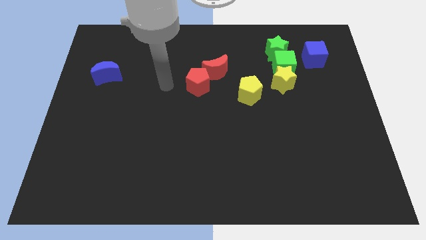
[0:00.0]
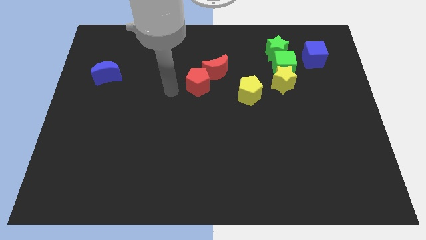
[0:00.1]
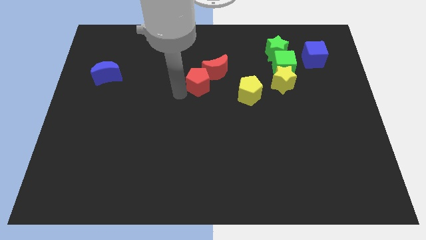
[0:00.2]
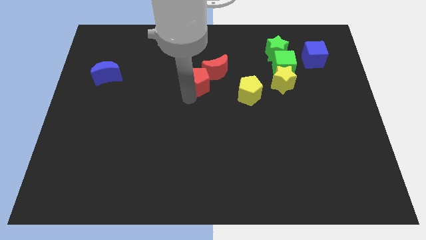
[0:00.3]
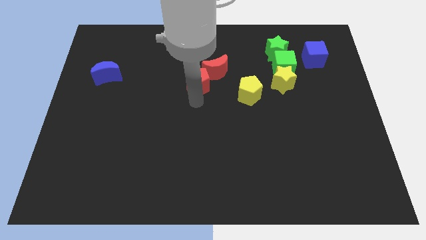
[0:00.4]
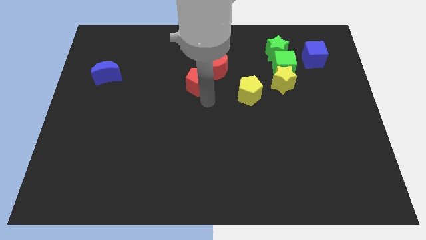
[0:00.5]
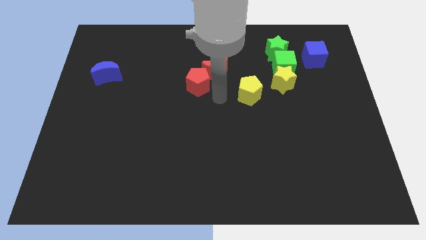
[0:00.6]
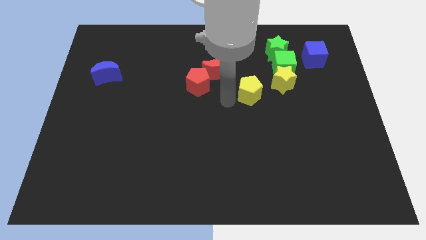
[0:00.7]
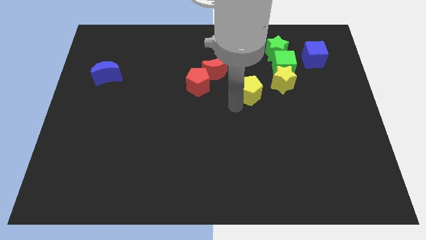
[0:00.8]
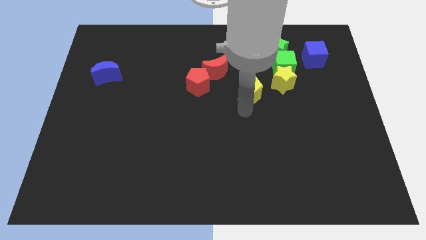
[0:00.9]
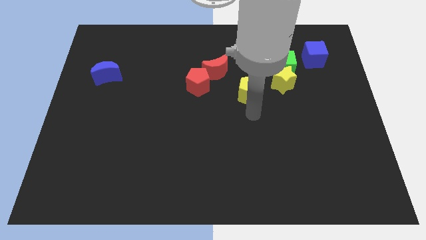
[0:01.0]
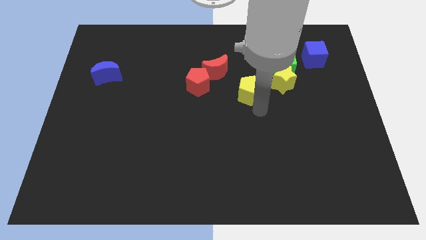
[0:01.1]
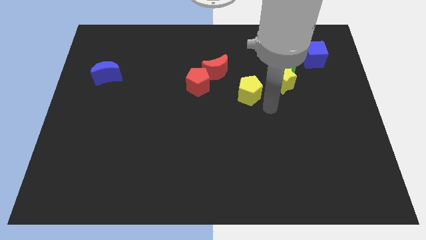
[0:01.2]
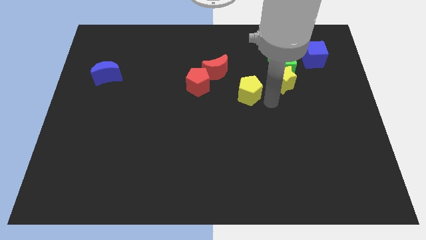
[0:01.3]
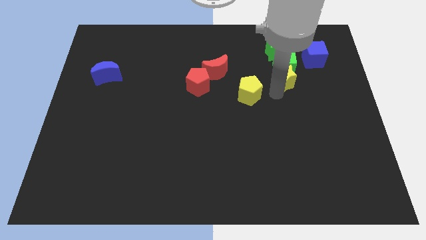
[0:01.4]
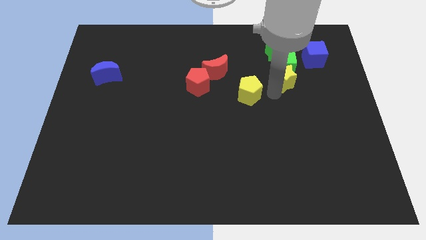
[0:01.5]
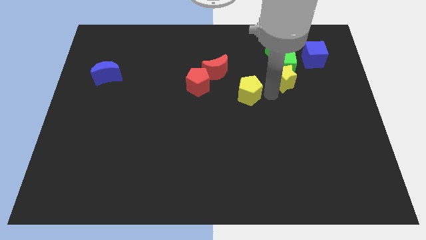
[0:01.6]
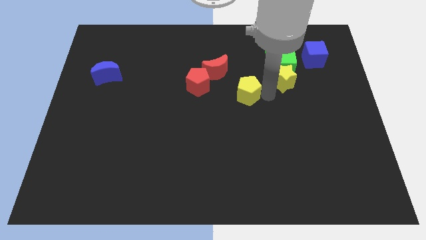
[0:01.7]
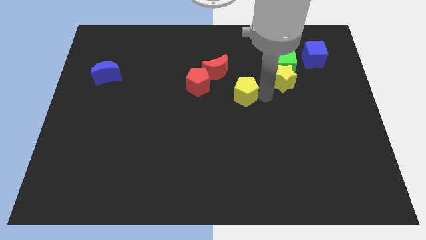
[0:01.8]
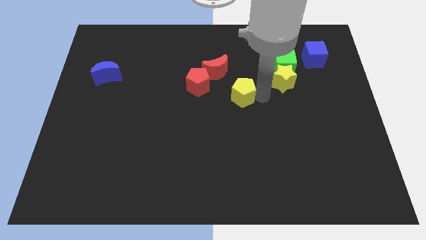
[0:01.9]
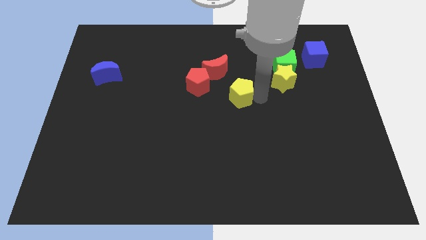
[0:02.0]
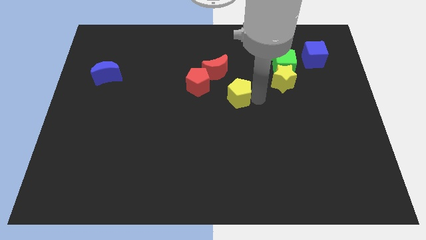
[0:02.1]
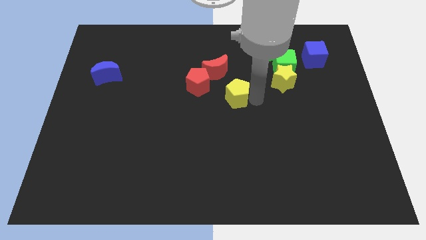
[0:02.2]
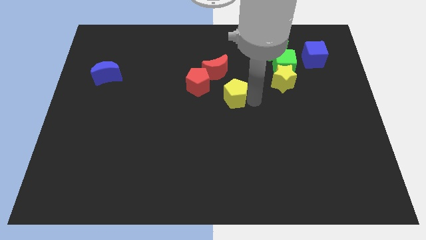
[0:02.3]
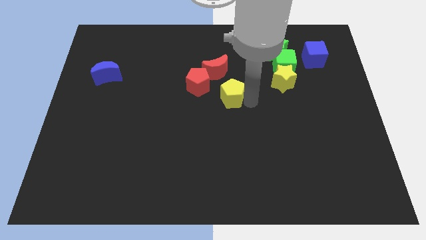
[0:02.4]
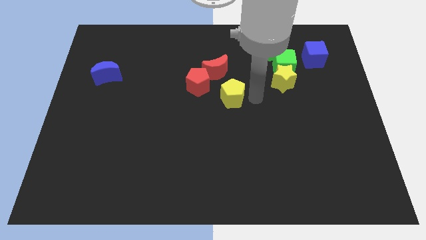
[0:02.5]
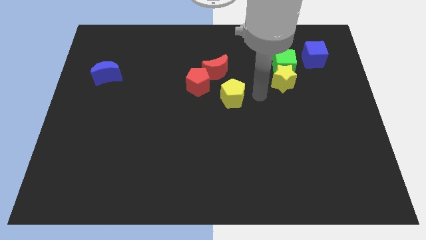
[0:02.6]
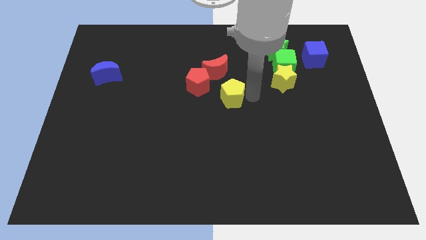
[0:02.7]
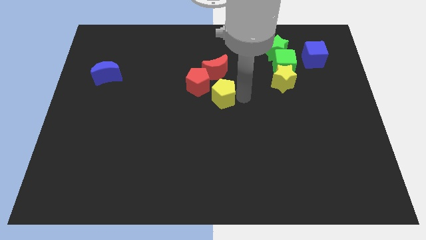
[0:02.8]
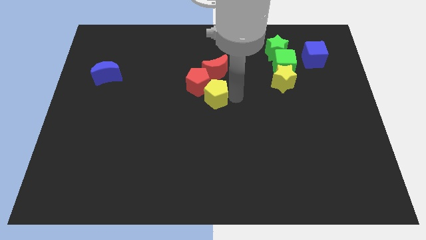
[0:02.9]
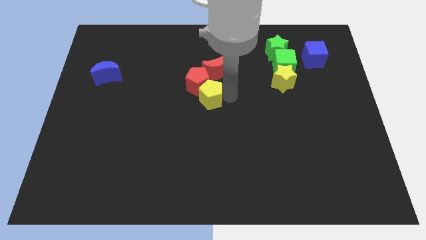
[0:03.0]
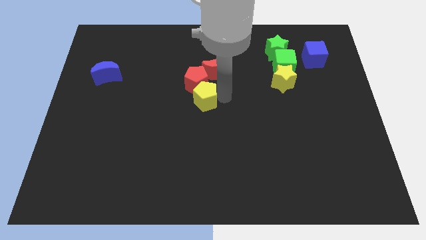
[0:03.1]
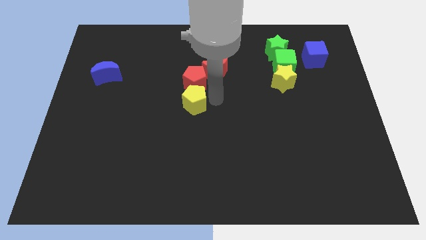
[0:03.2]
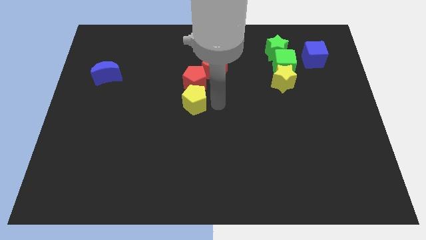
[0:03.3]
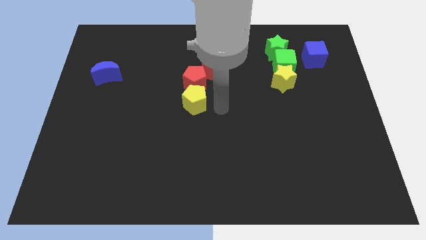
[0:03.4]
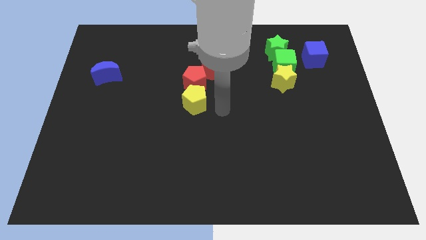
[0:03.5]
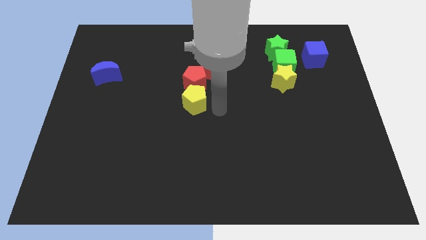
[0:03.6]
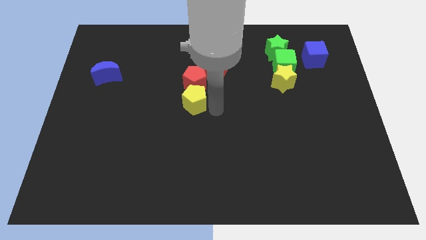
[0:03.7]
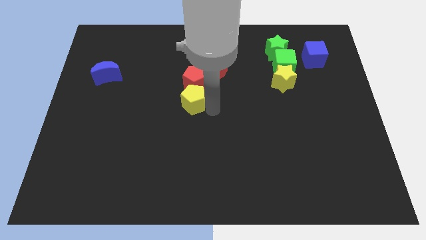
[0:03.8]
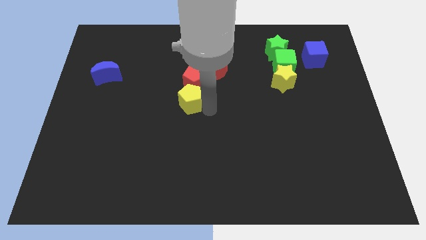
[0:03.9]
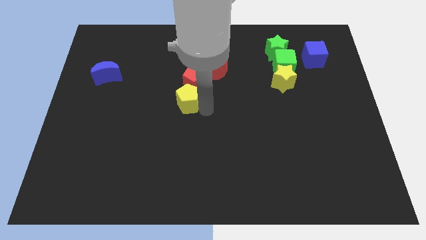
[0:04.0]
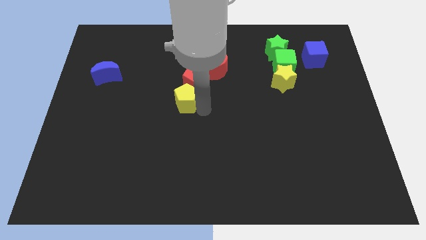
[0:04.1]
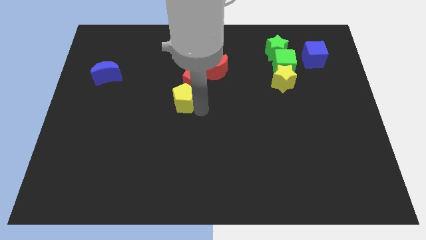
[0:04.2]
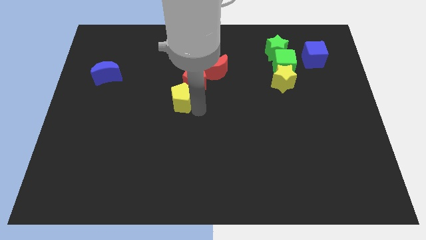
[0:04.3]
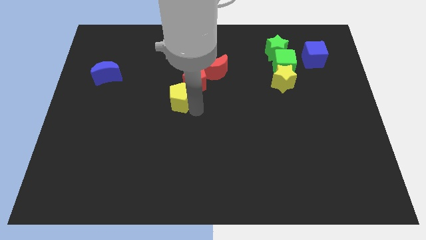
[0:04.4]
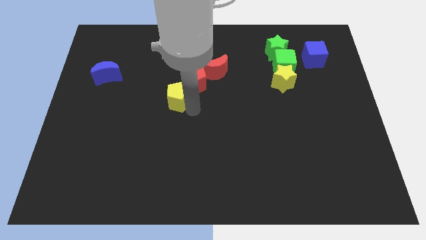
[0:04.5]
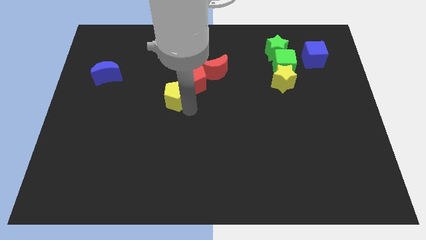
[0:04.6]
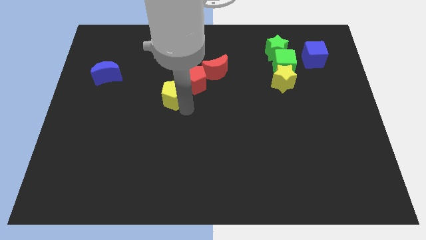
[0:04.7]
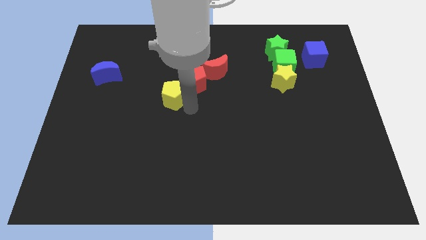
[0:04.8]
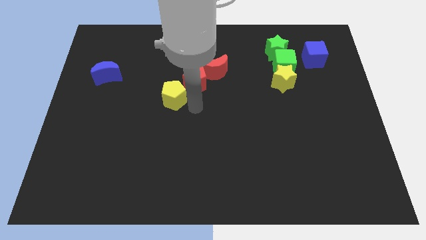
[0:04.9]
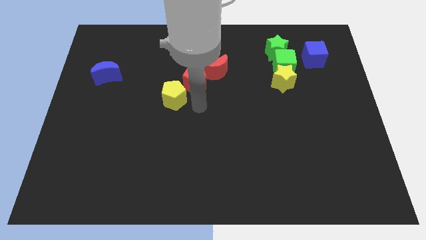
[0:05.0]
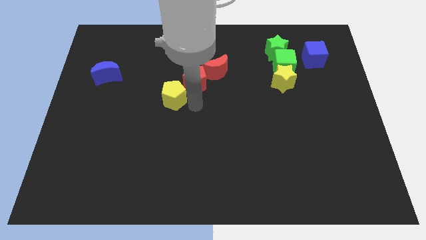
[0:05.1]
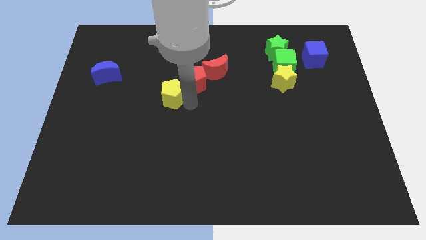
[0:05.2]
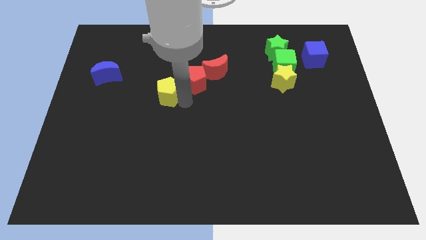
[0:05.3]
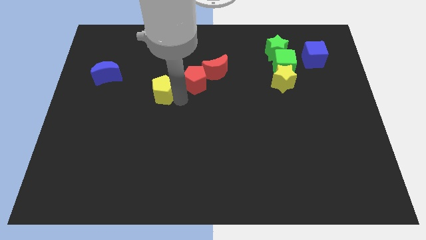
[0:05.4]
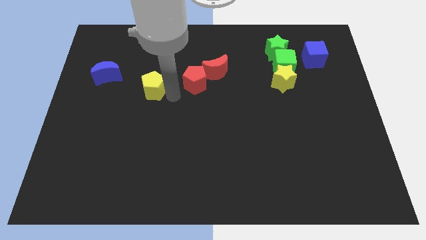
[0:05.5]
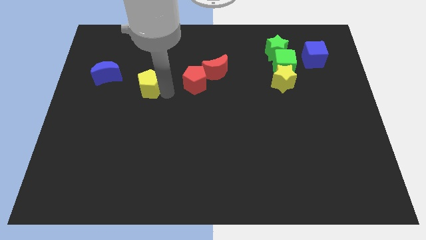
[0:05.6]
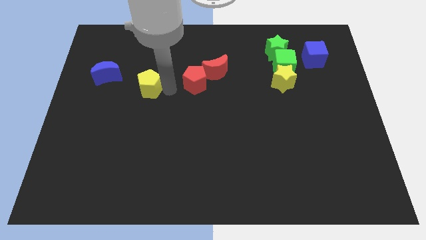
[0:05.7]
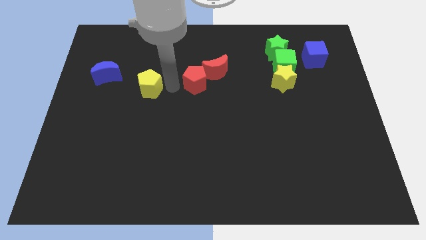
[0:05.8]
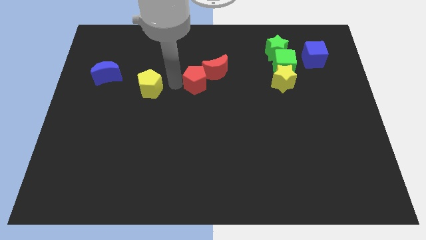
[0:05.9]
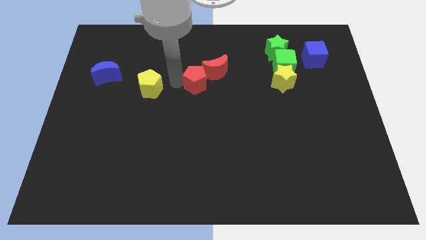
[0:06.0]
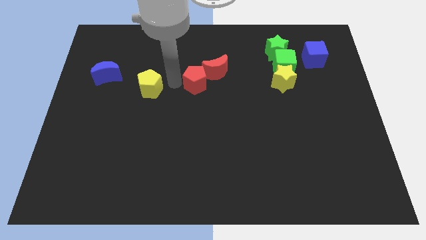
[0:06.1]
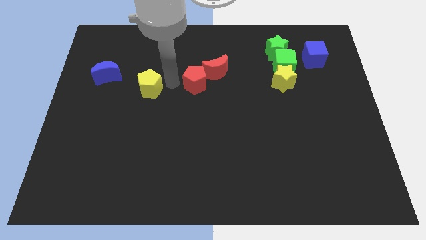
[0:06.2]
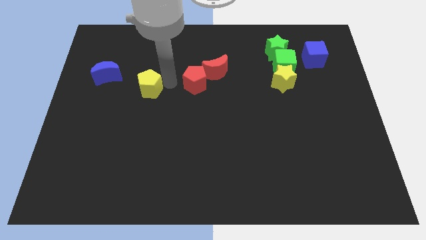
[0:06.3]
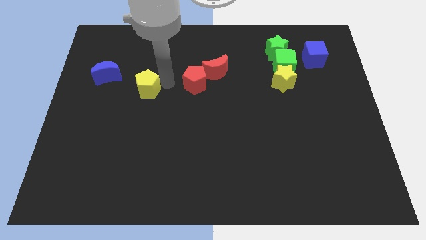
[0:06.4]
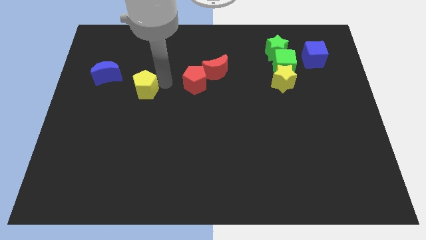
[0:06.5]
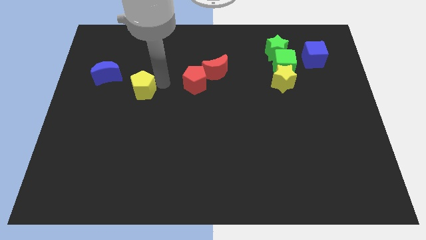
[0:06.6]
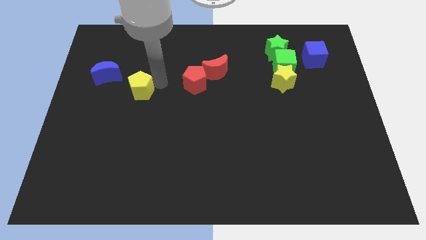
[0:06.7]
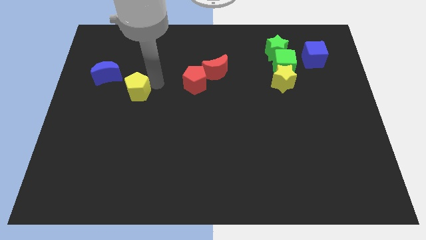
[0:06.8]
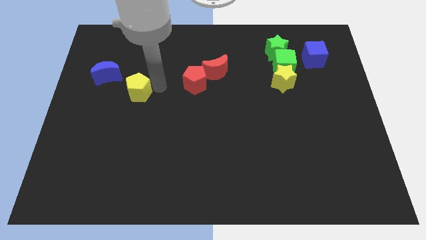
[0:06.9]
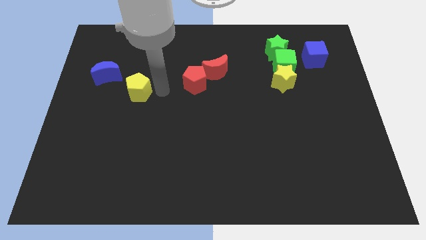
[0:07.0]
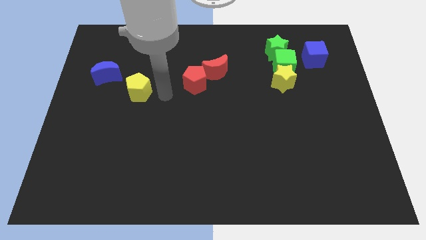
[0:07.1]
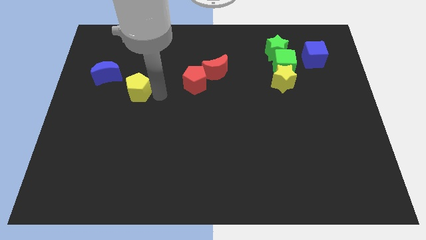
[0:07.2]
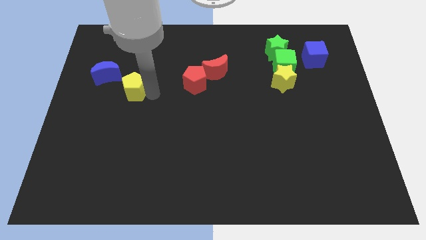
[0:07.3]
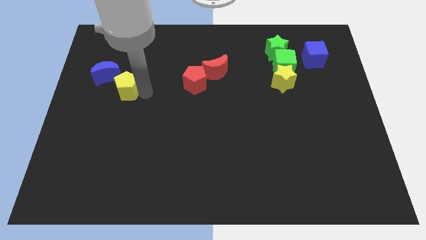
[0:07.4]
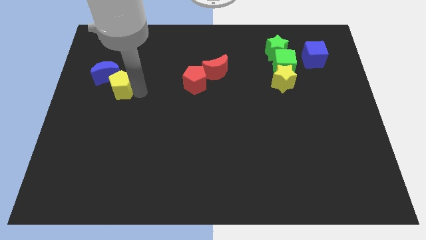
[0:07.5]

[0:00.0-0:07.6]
slide the yellow pentagon close to the blue moon
